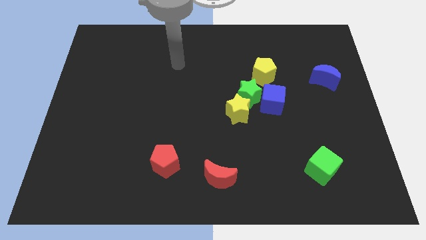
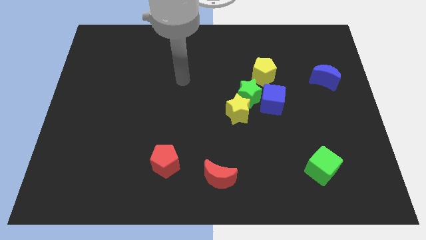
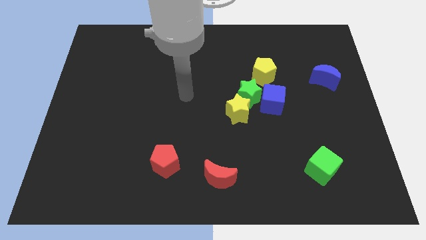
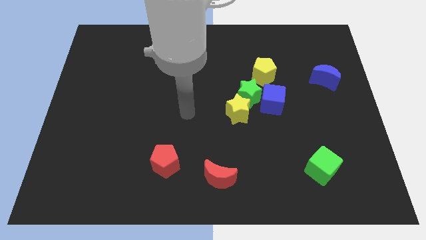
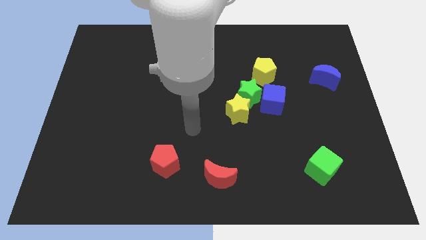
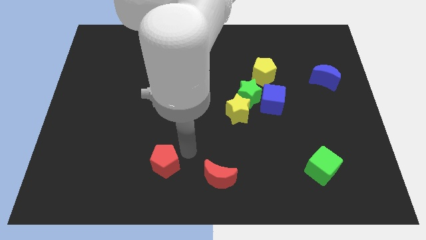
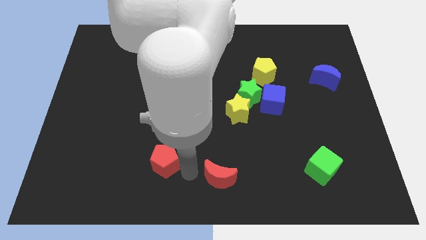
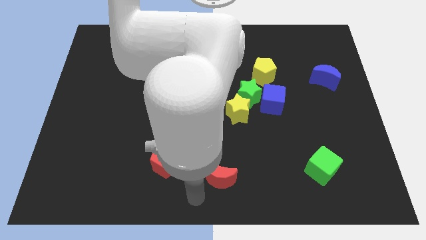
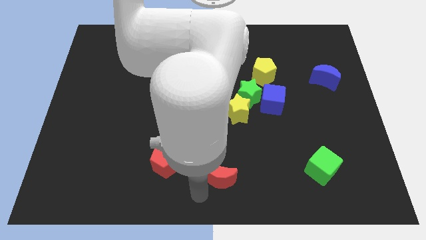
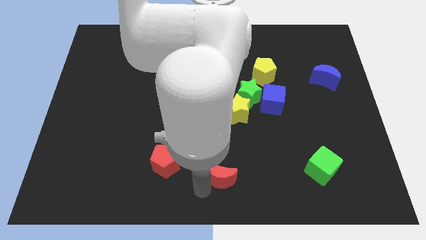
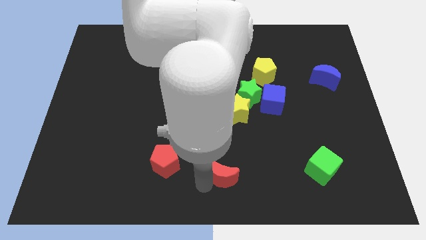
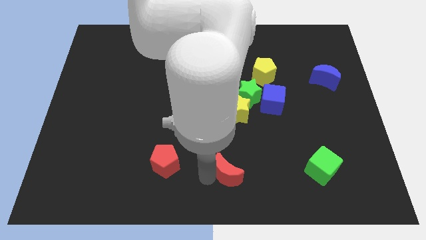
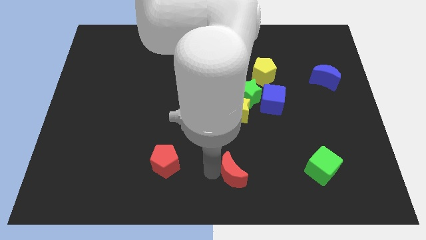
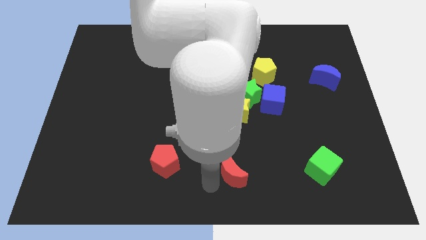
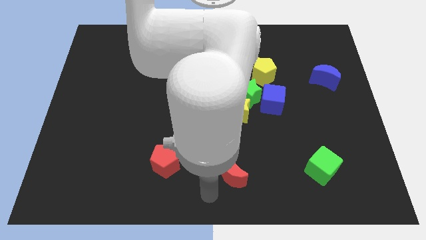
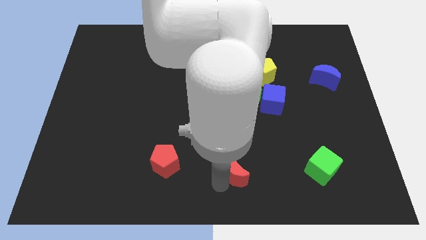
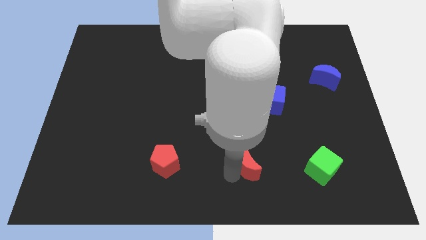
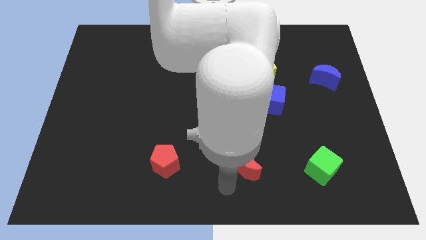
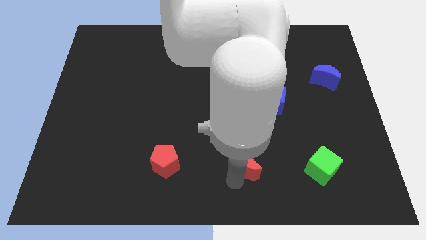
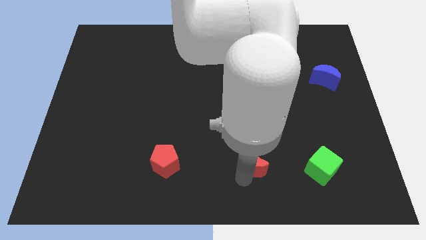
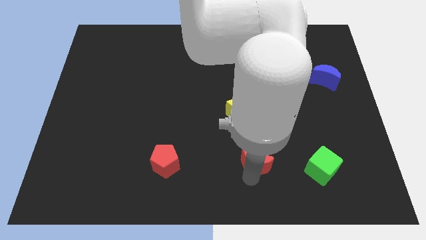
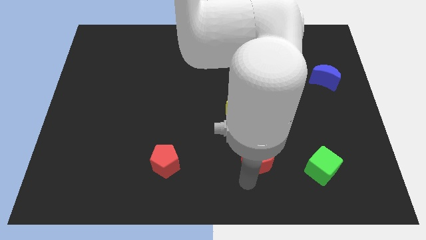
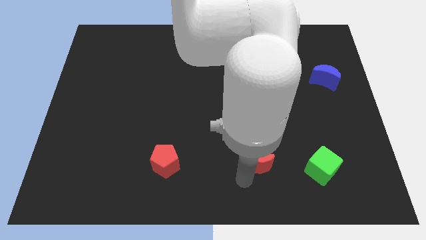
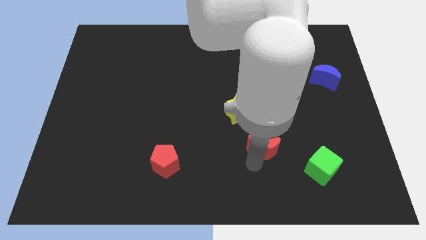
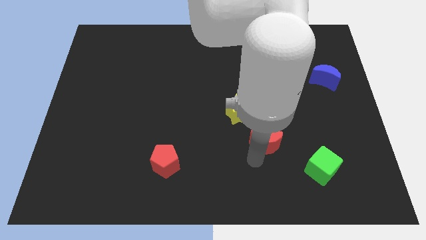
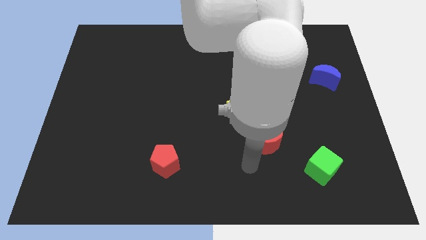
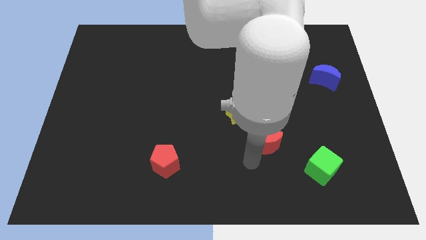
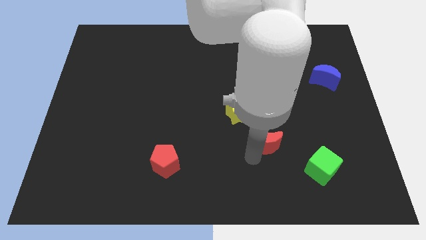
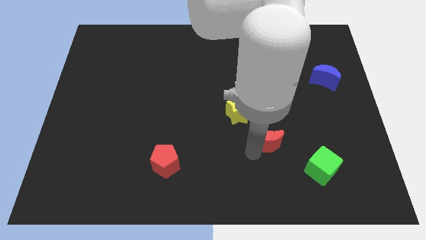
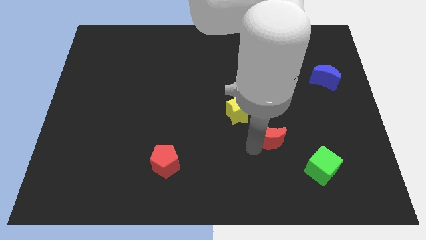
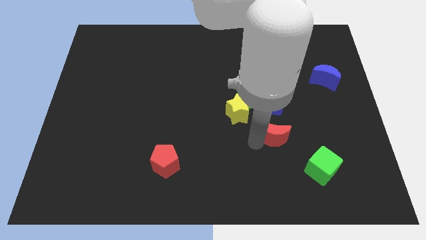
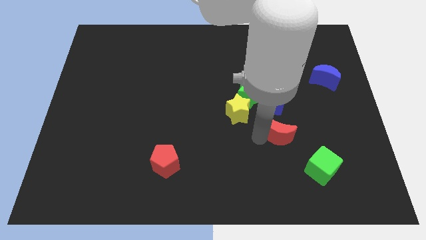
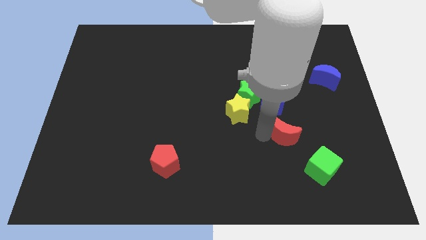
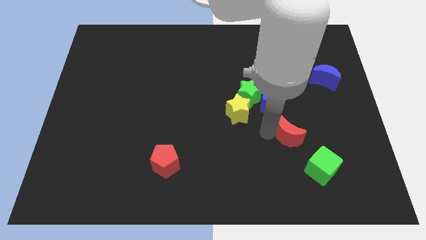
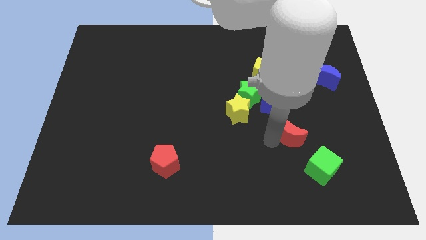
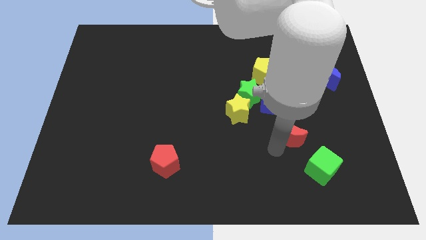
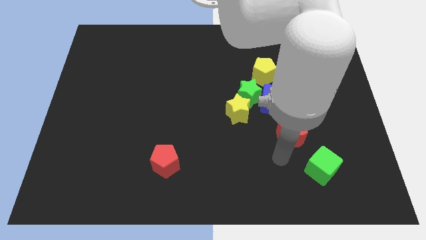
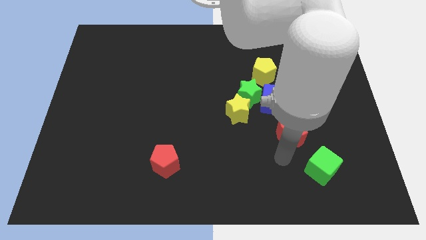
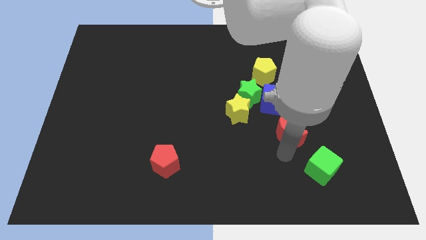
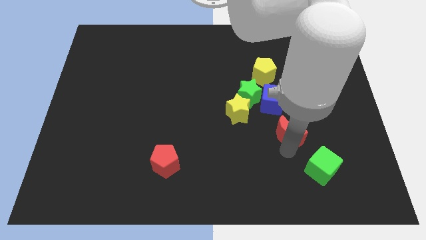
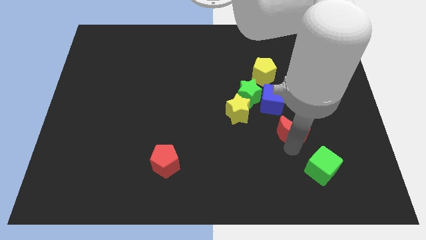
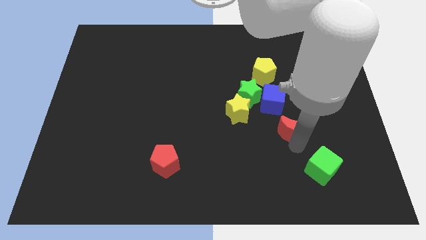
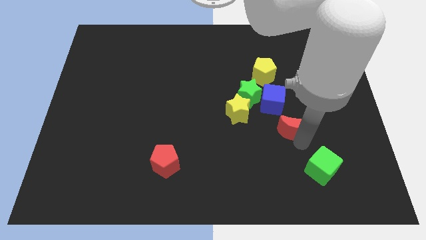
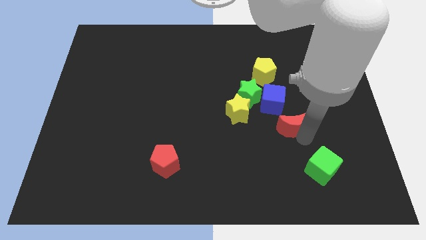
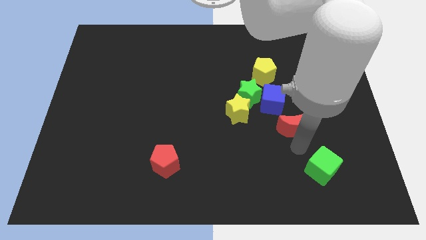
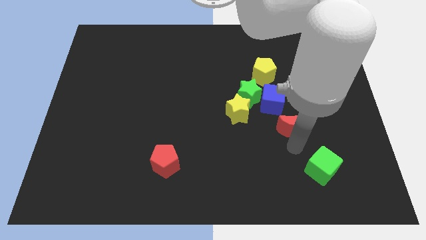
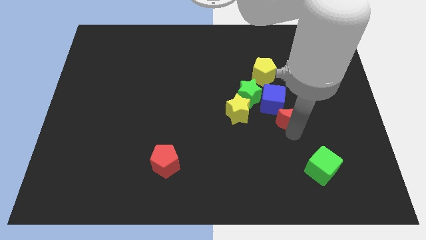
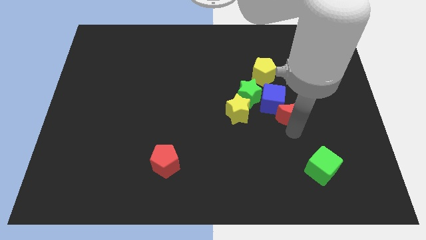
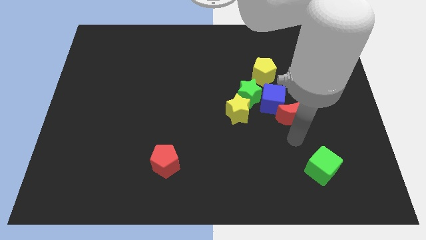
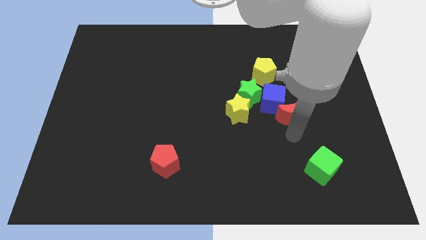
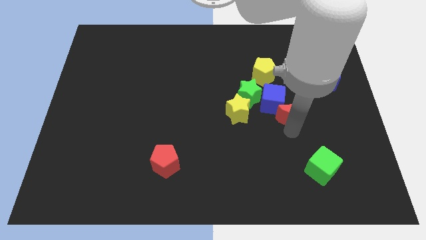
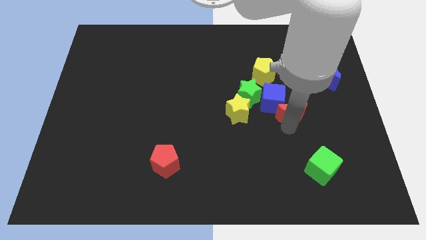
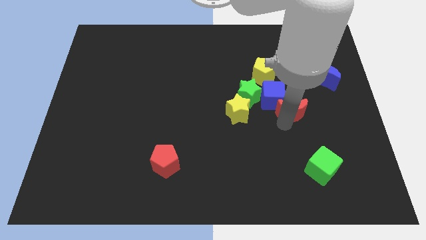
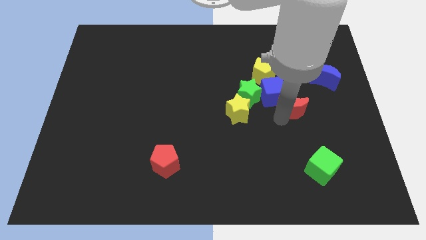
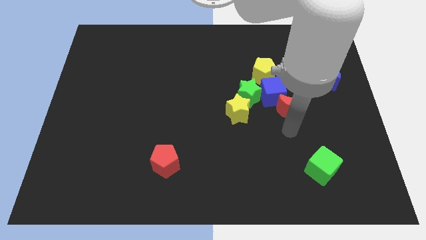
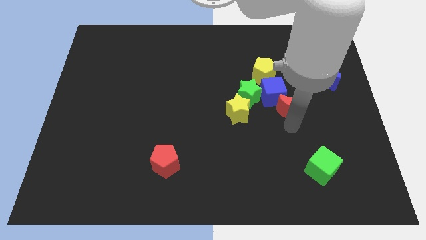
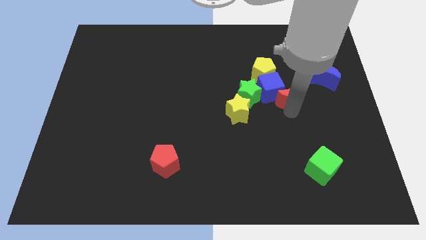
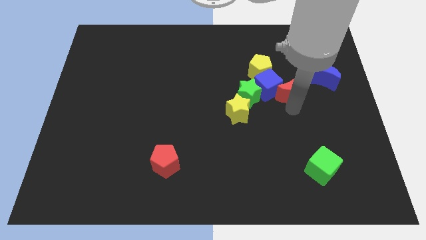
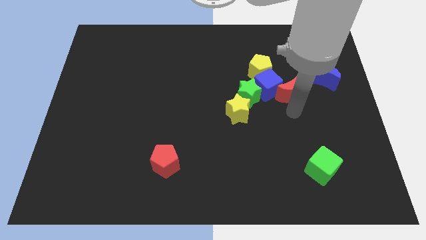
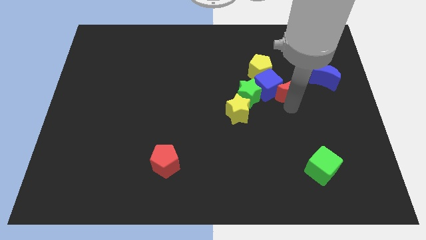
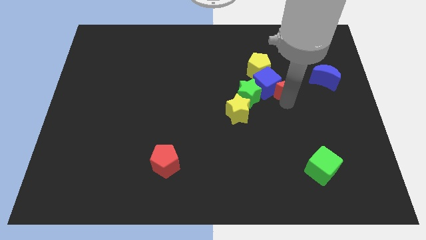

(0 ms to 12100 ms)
move the red moon to the top right of the blue cube

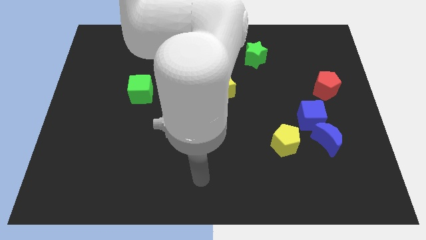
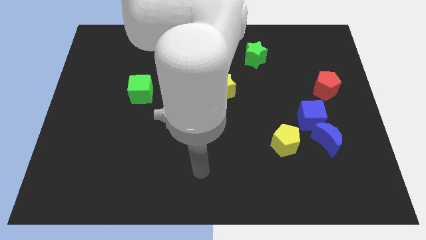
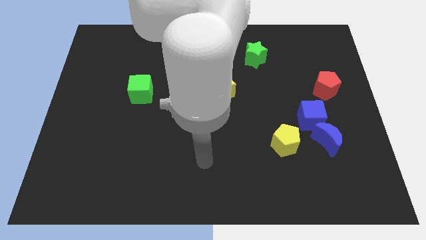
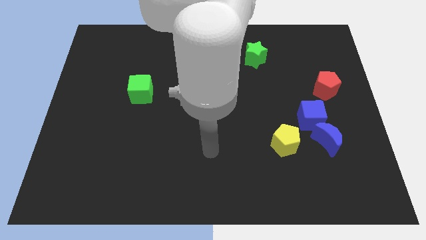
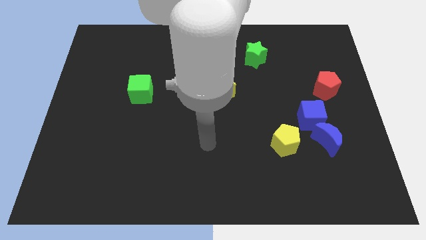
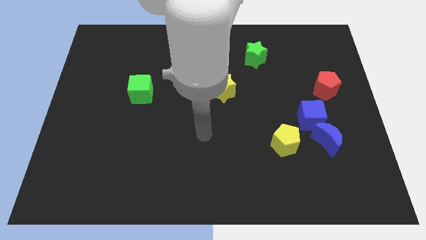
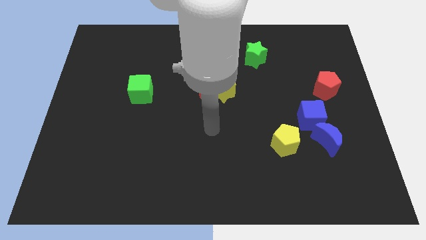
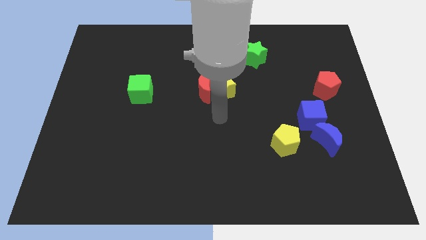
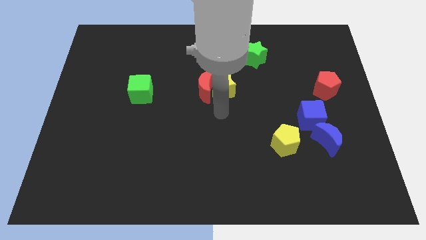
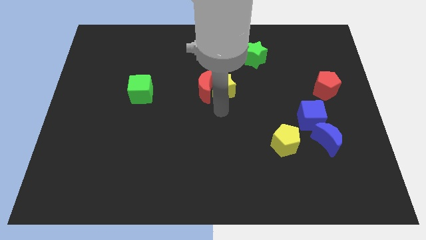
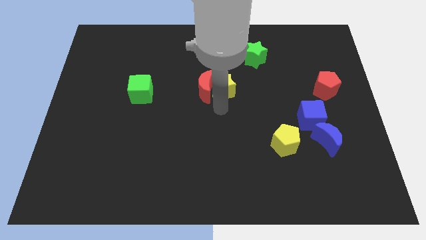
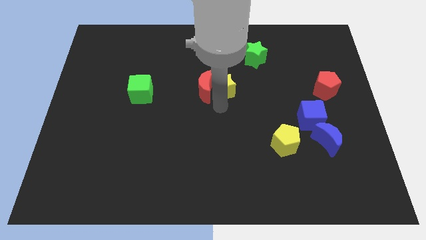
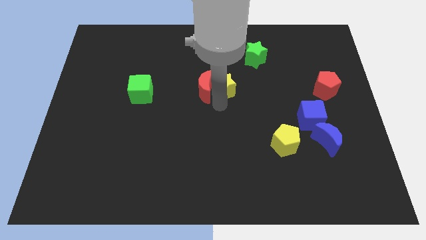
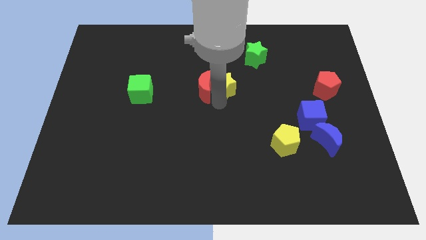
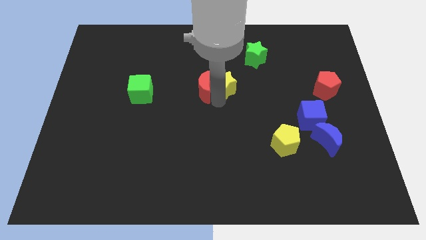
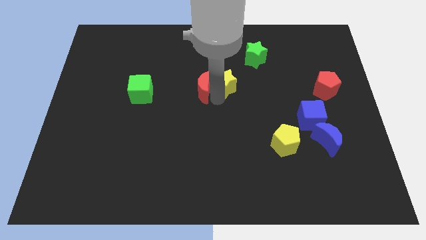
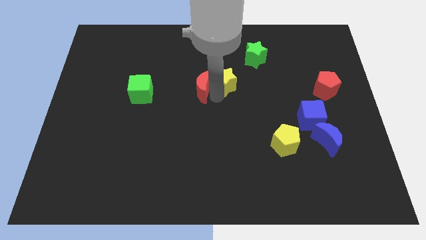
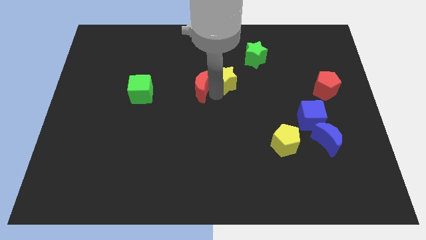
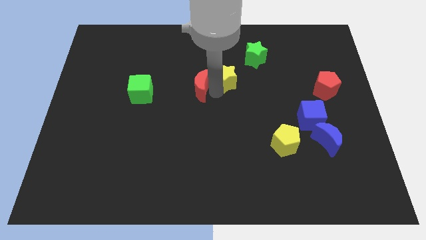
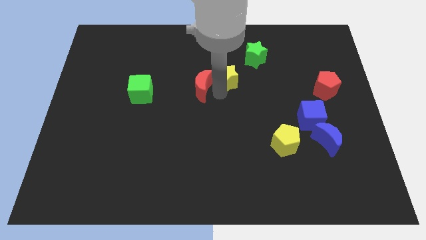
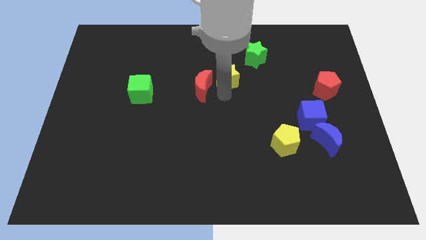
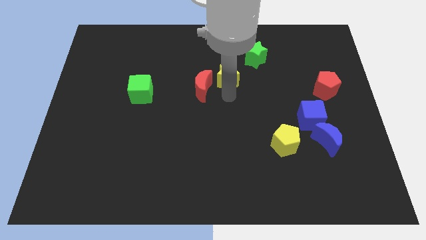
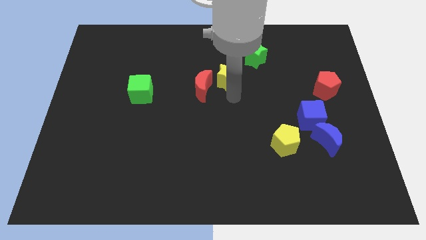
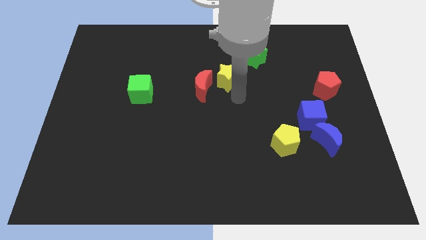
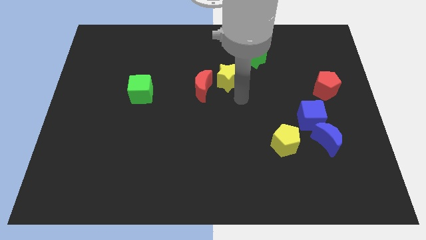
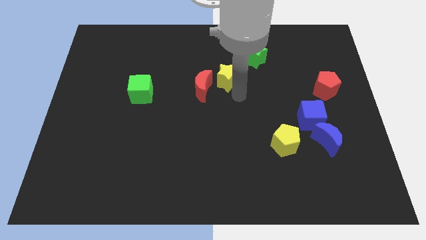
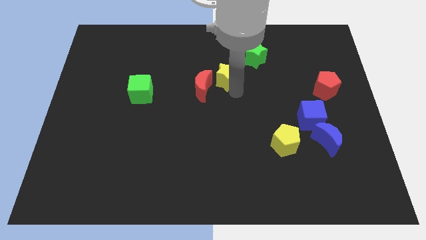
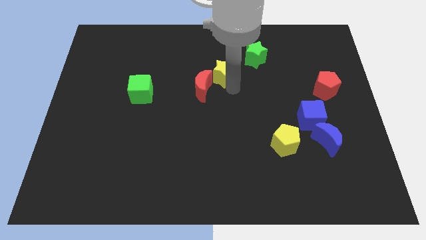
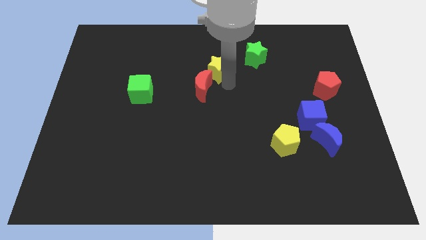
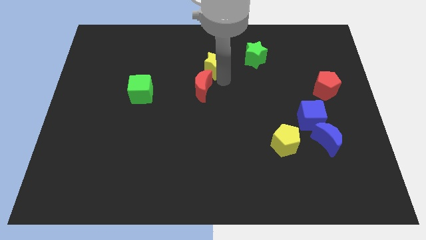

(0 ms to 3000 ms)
push the yellow star to the left side of the green star
